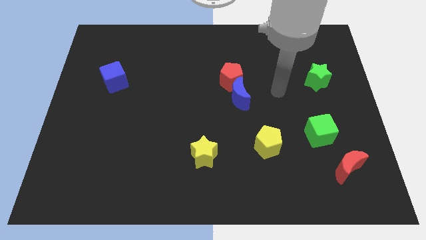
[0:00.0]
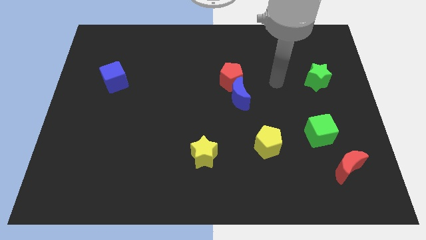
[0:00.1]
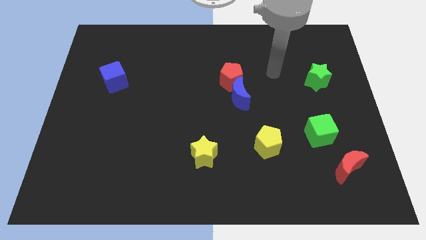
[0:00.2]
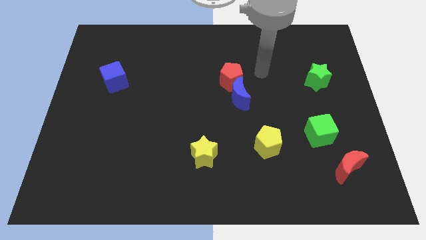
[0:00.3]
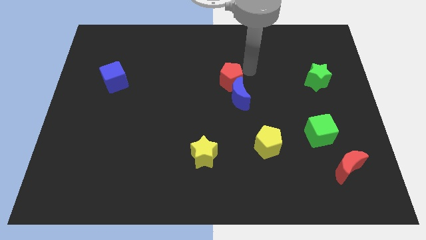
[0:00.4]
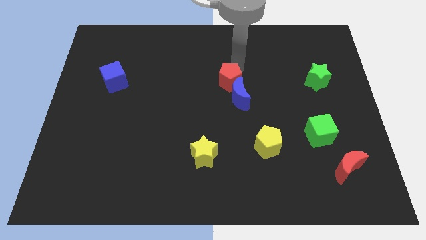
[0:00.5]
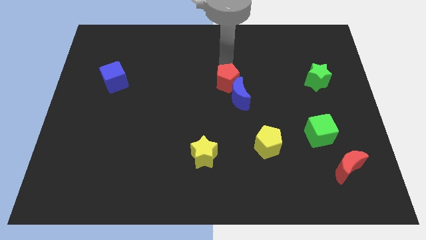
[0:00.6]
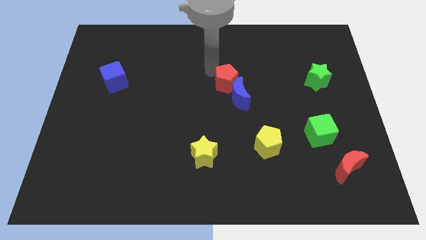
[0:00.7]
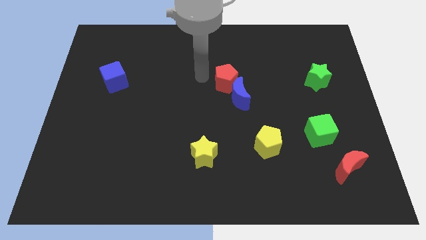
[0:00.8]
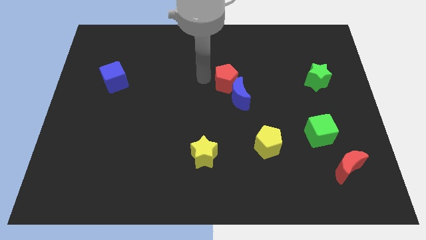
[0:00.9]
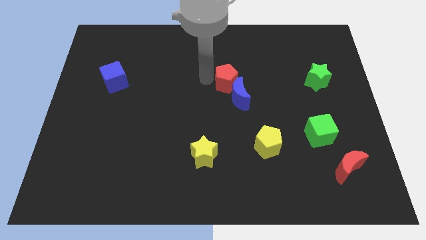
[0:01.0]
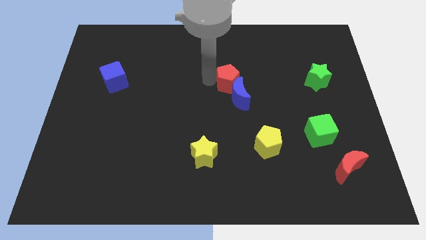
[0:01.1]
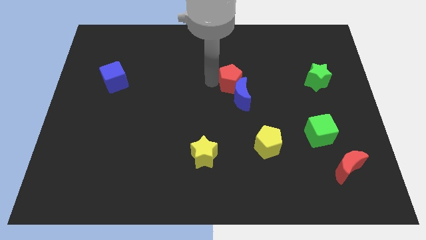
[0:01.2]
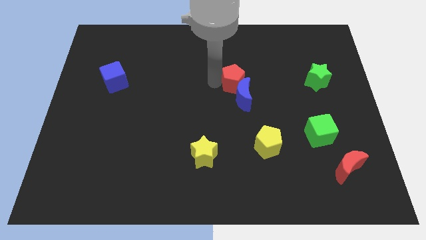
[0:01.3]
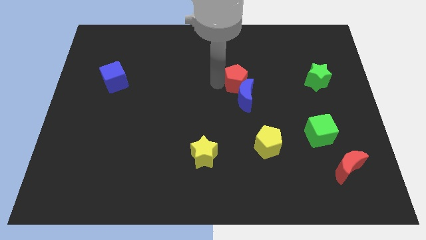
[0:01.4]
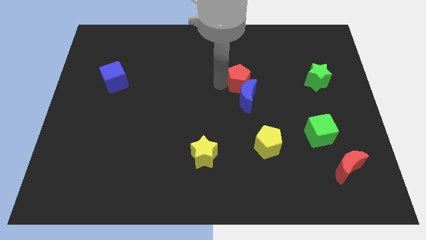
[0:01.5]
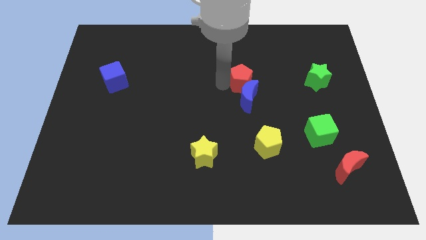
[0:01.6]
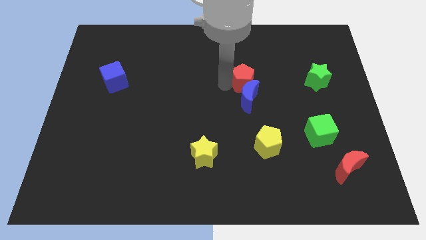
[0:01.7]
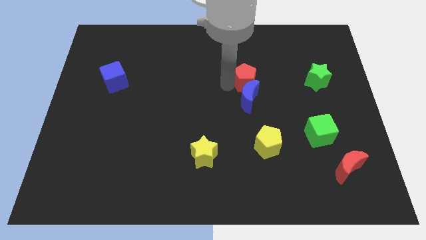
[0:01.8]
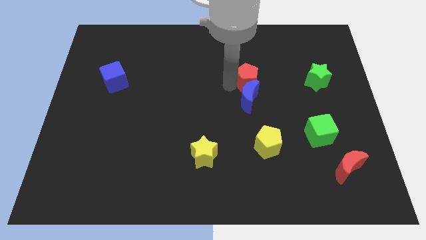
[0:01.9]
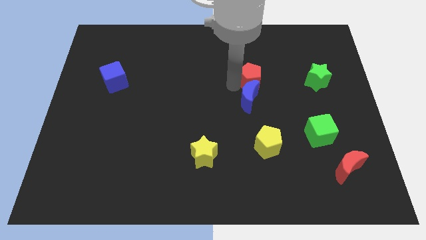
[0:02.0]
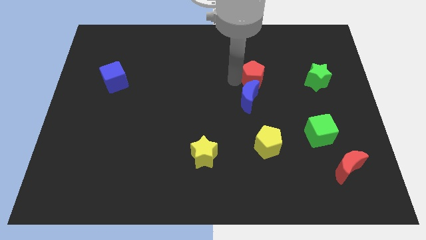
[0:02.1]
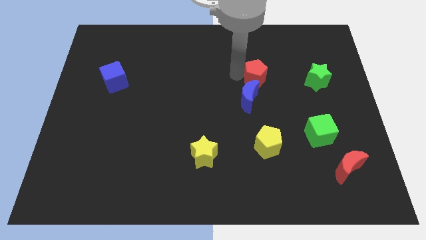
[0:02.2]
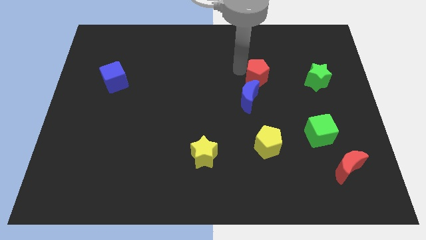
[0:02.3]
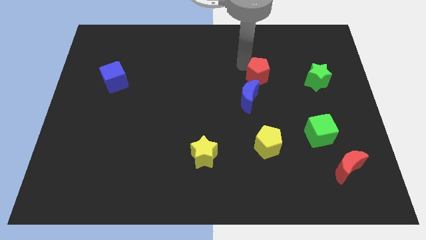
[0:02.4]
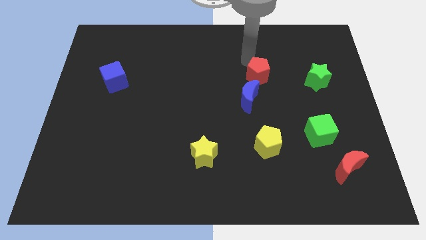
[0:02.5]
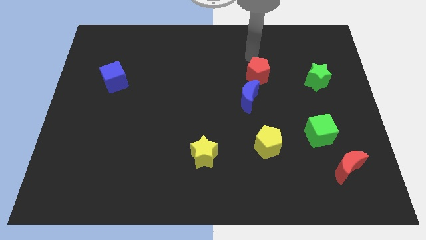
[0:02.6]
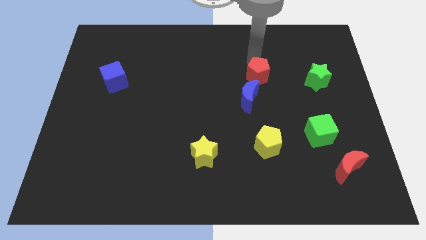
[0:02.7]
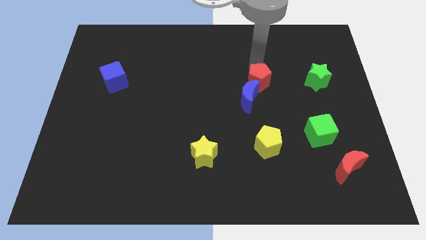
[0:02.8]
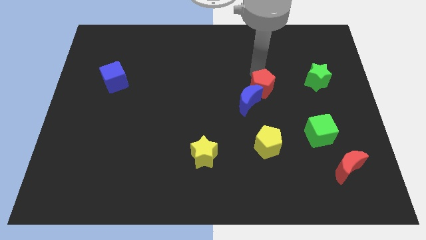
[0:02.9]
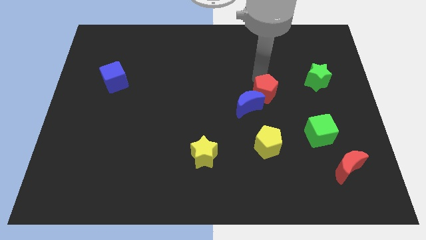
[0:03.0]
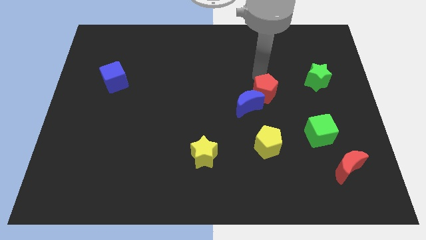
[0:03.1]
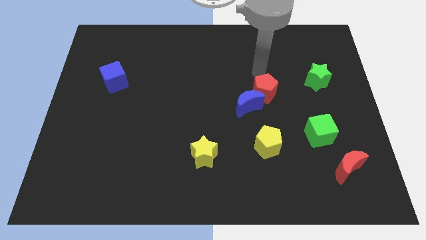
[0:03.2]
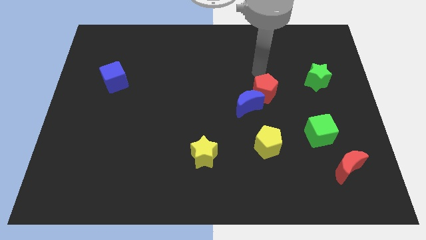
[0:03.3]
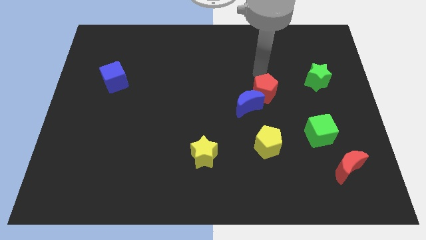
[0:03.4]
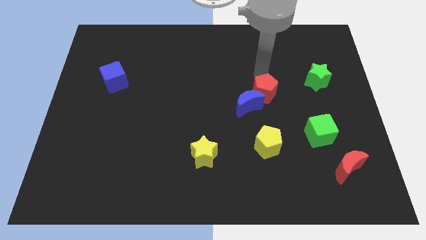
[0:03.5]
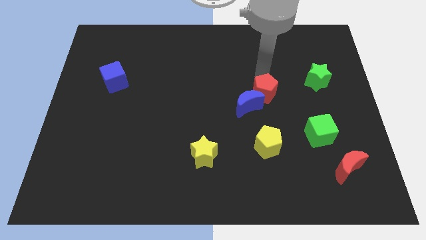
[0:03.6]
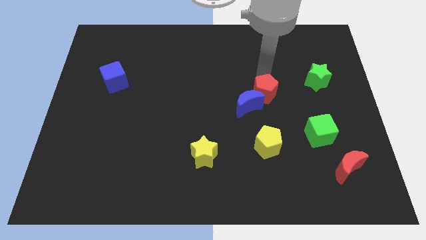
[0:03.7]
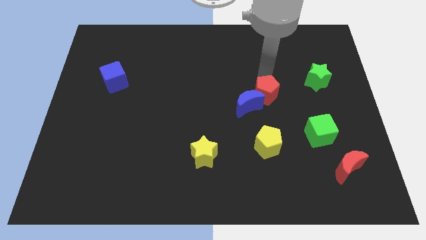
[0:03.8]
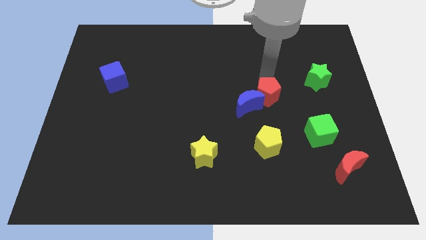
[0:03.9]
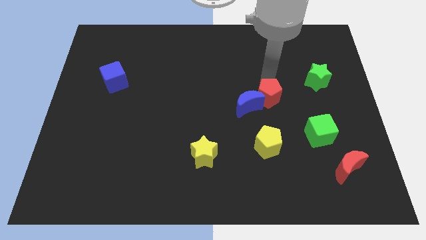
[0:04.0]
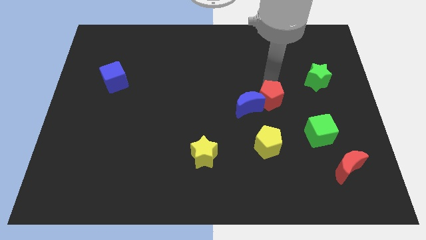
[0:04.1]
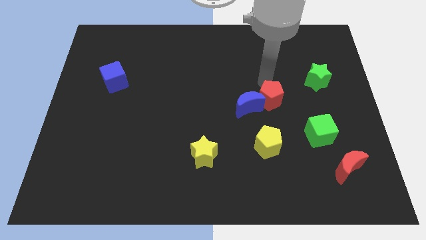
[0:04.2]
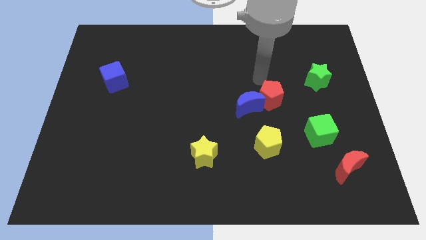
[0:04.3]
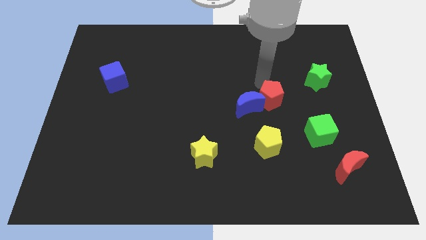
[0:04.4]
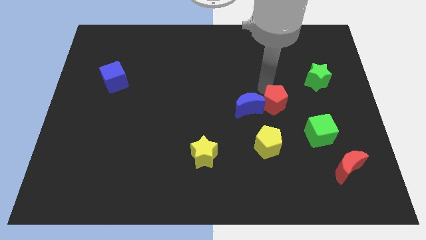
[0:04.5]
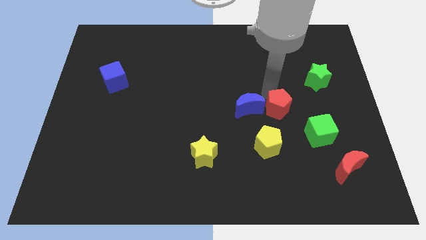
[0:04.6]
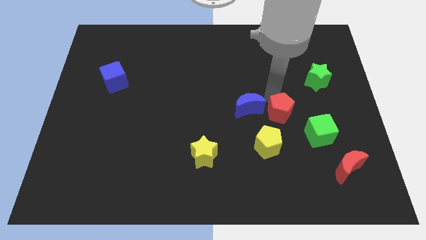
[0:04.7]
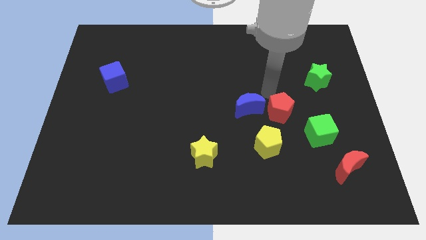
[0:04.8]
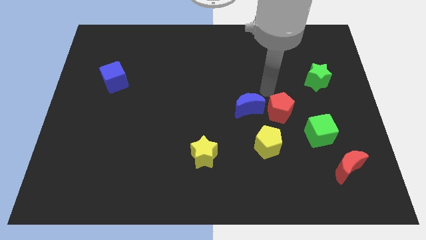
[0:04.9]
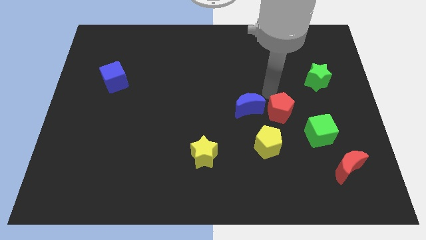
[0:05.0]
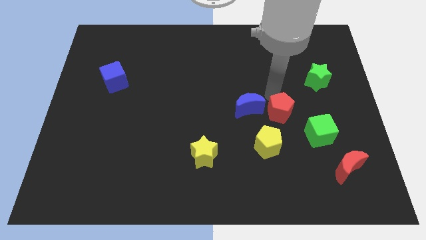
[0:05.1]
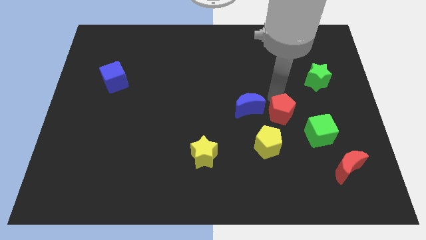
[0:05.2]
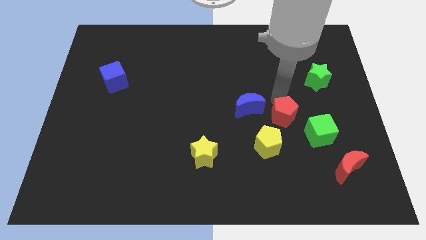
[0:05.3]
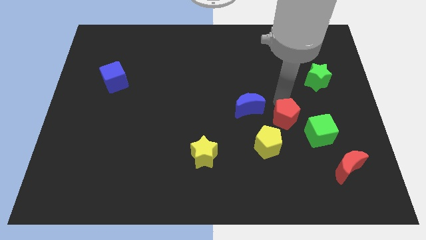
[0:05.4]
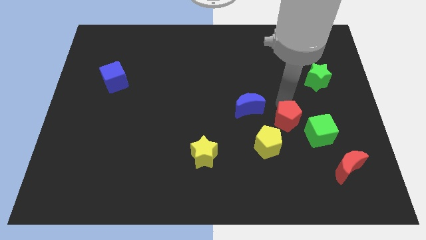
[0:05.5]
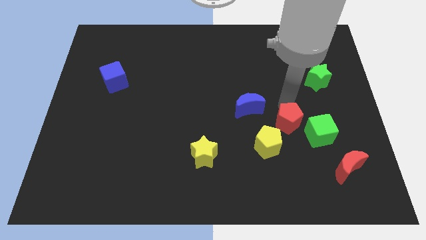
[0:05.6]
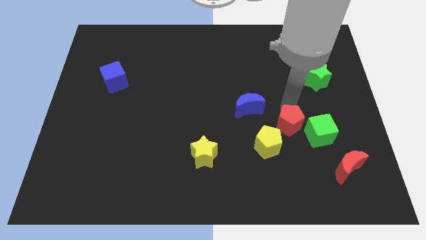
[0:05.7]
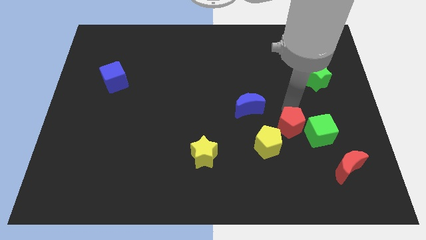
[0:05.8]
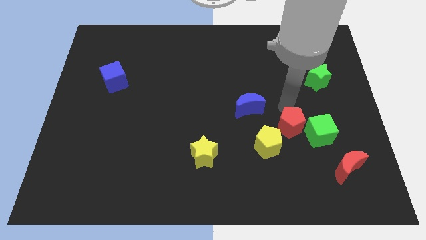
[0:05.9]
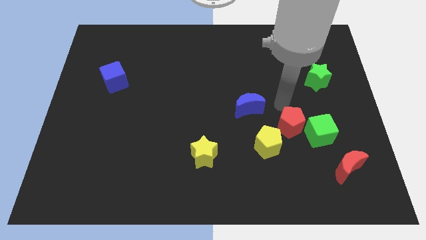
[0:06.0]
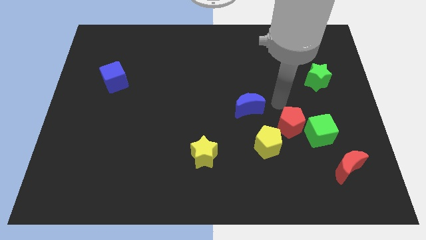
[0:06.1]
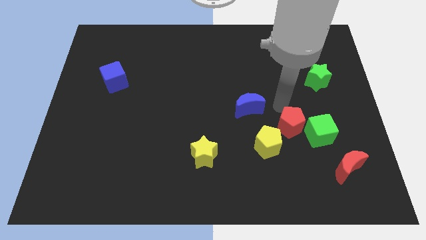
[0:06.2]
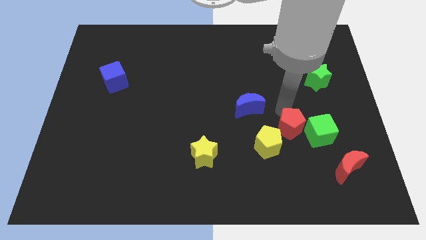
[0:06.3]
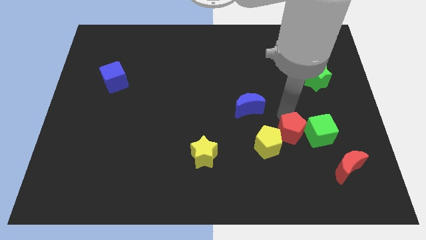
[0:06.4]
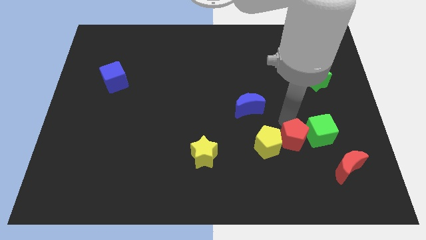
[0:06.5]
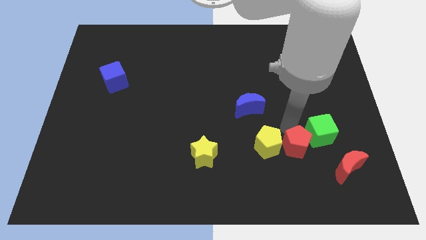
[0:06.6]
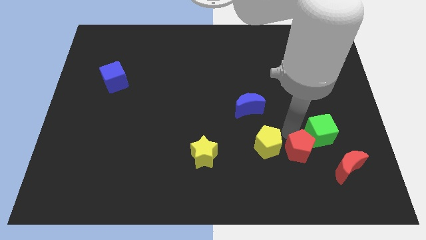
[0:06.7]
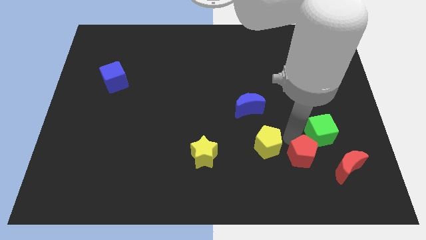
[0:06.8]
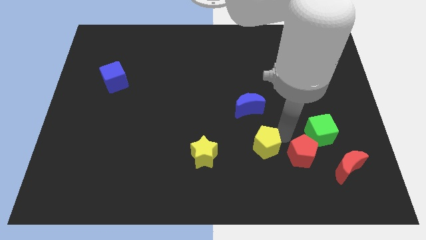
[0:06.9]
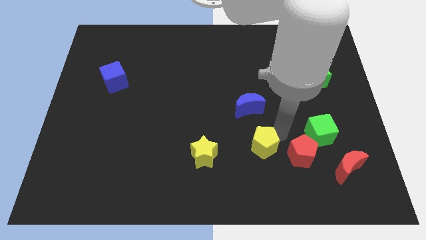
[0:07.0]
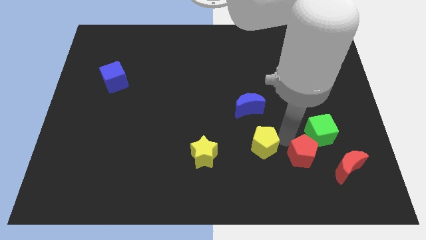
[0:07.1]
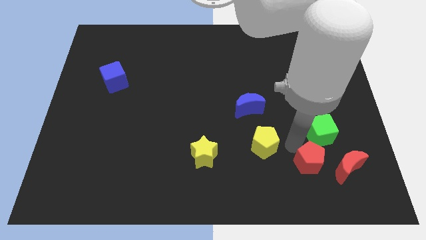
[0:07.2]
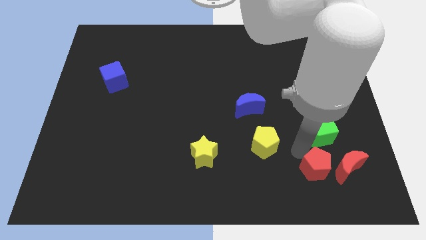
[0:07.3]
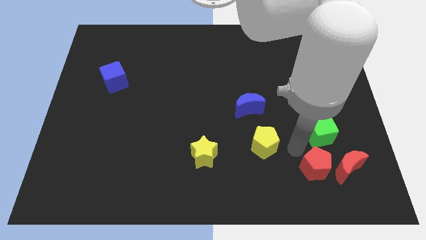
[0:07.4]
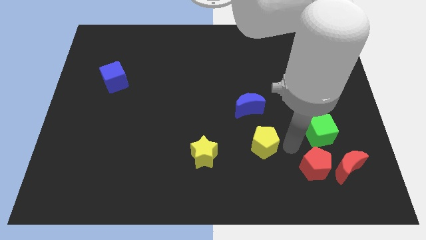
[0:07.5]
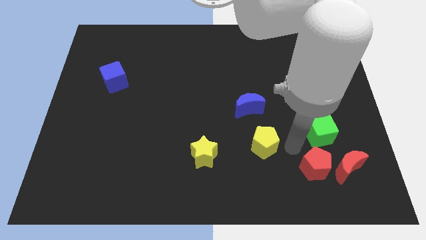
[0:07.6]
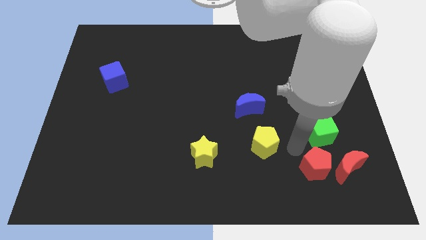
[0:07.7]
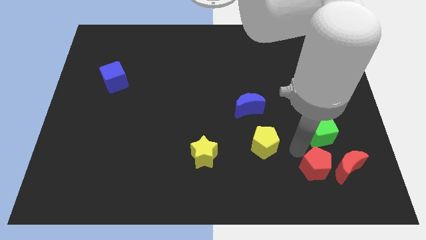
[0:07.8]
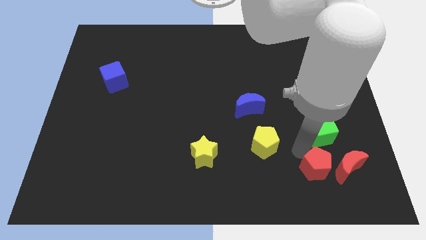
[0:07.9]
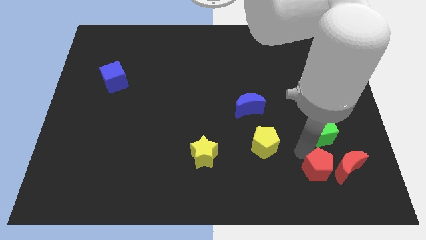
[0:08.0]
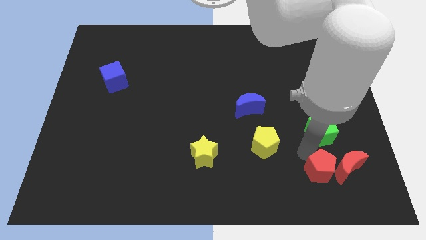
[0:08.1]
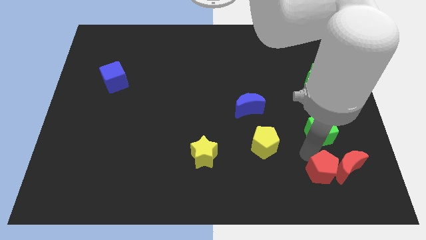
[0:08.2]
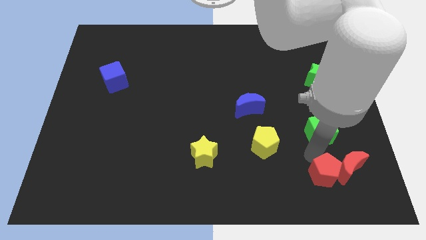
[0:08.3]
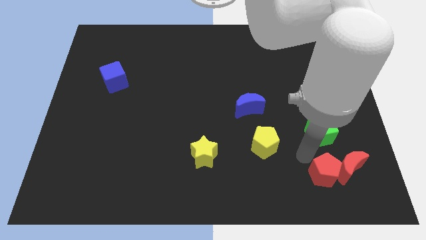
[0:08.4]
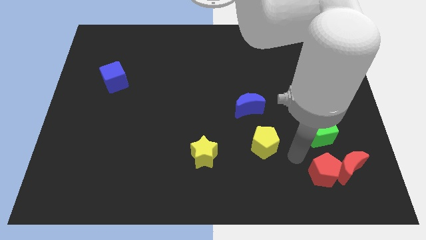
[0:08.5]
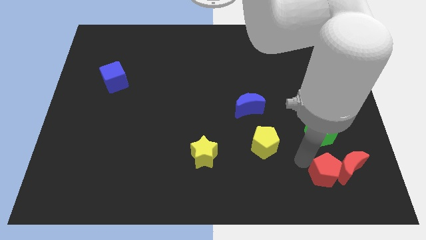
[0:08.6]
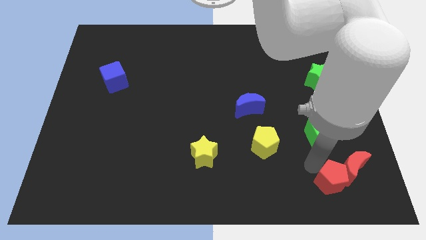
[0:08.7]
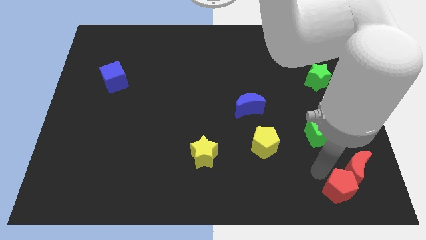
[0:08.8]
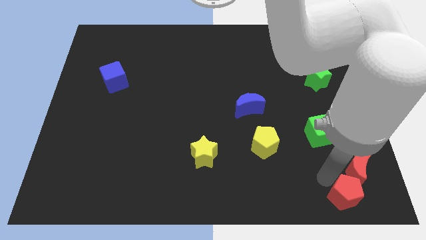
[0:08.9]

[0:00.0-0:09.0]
push the red pentagon to the bottom right of the board
